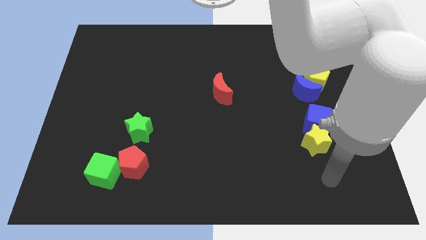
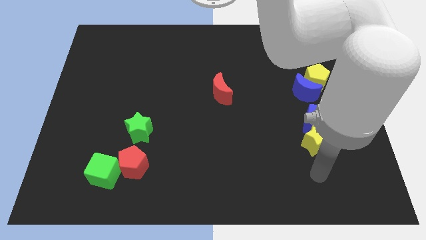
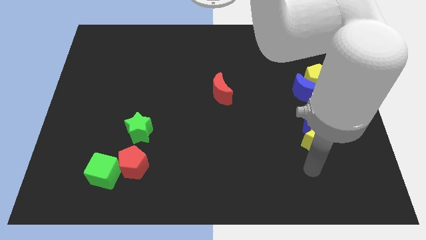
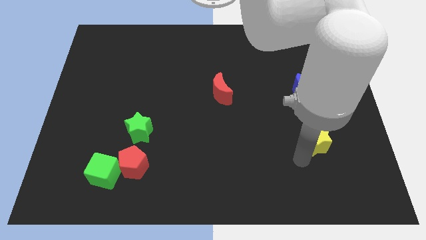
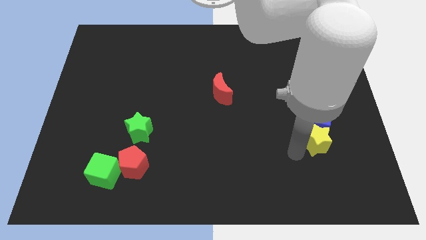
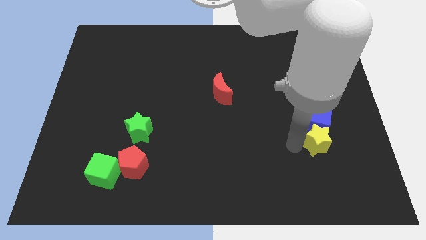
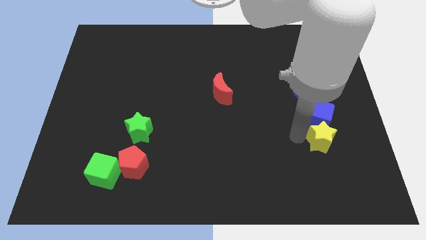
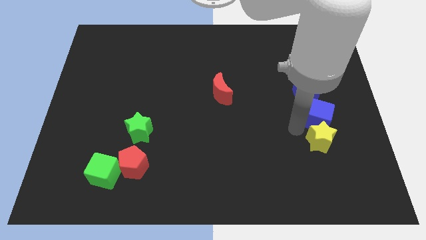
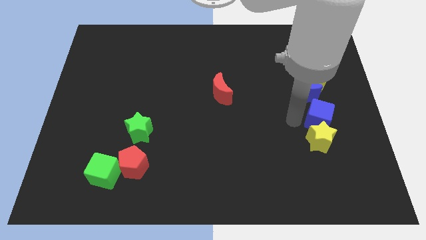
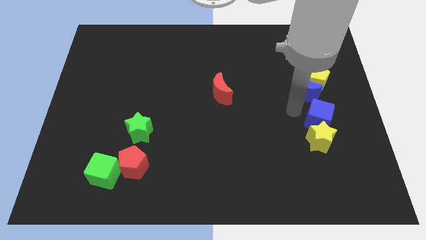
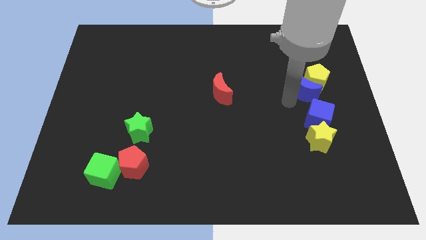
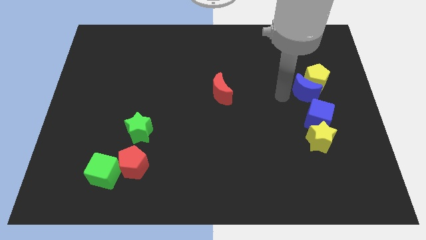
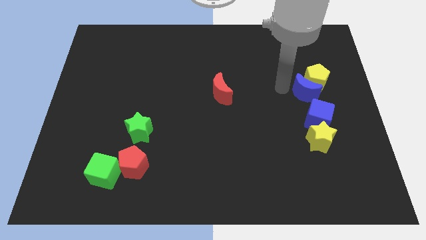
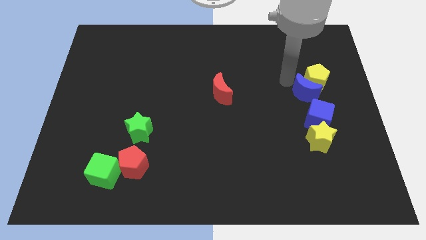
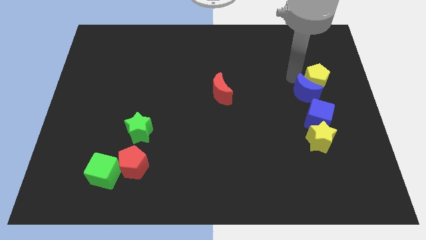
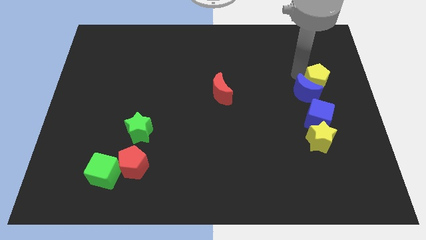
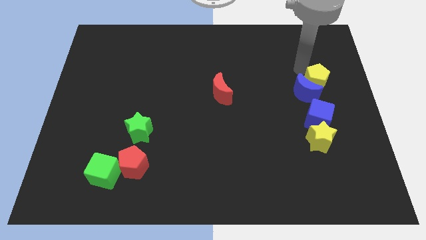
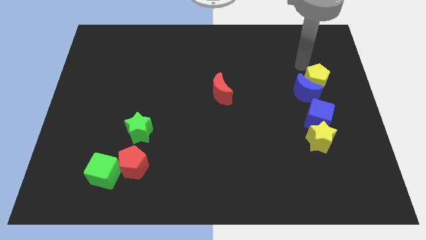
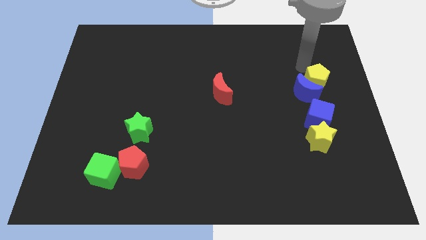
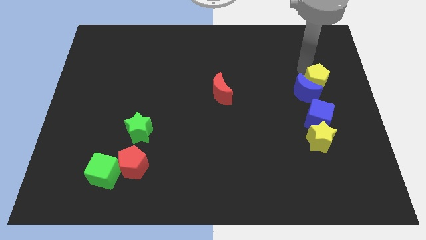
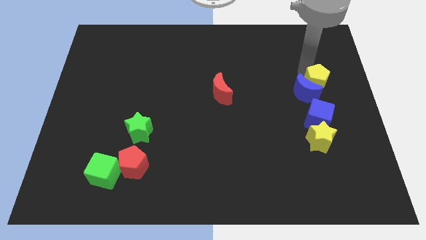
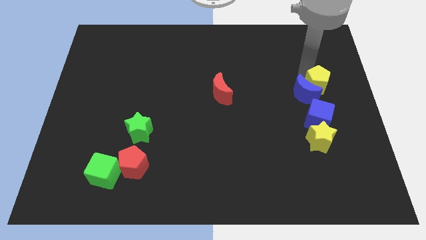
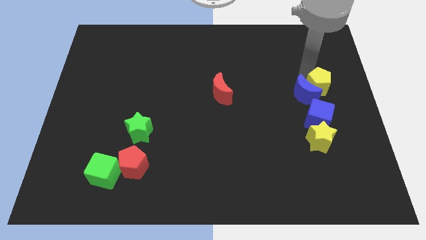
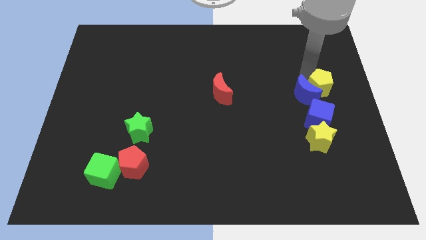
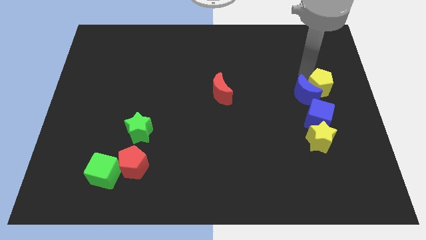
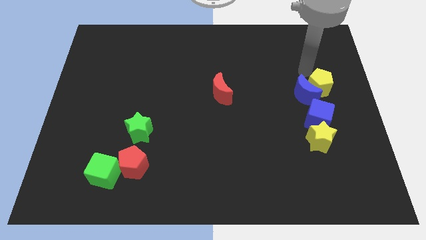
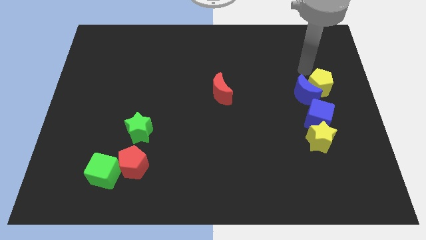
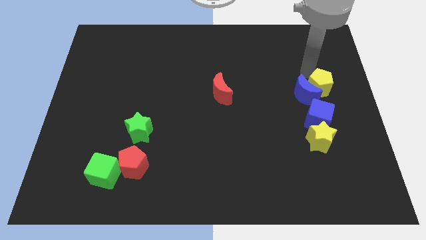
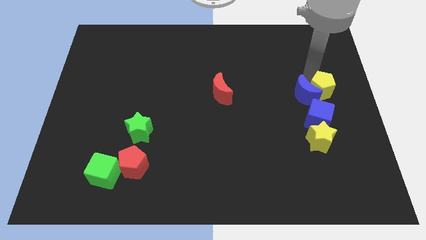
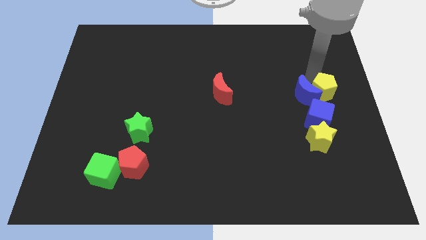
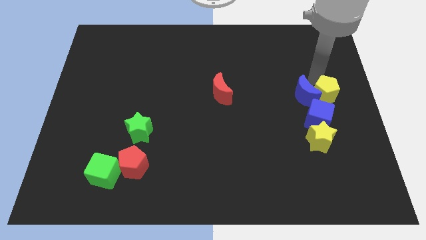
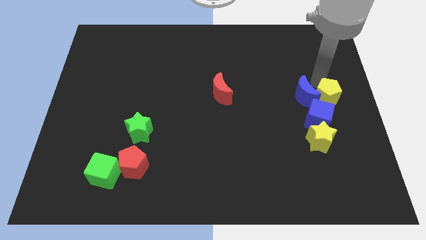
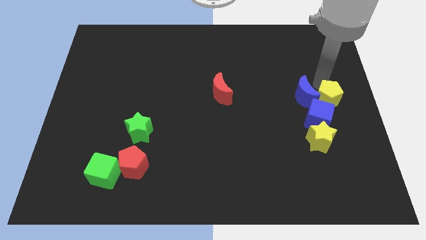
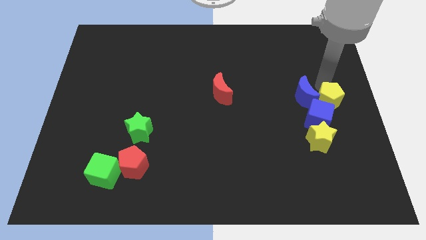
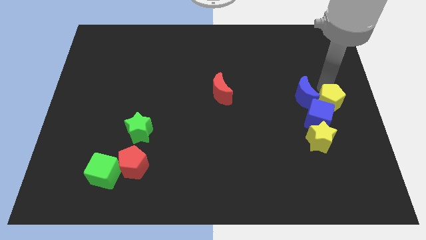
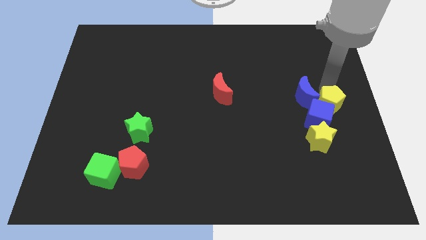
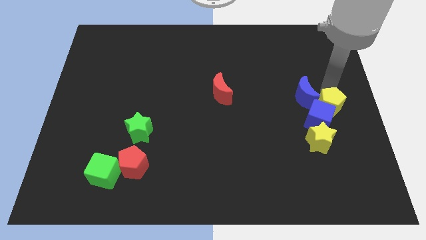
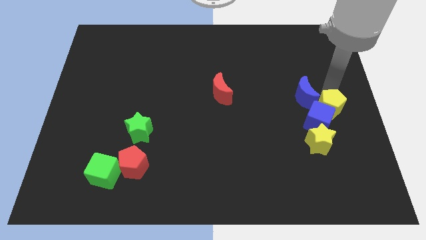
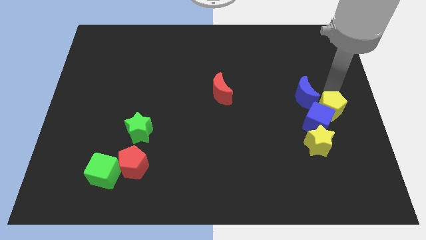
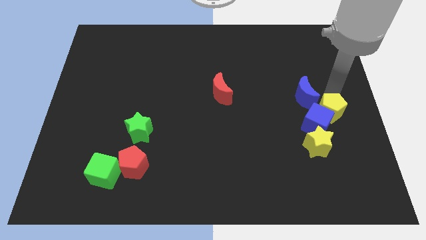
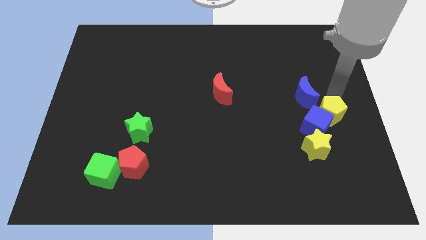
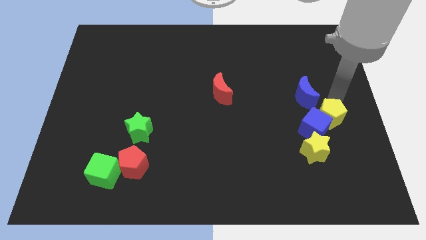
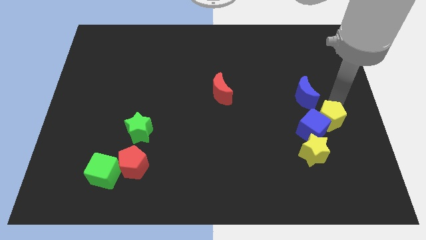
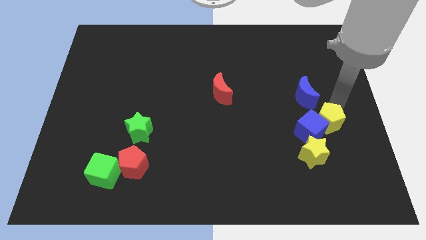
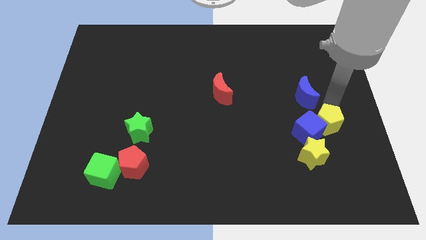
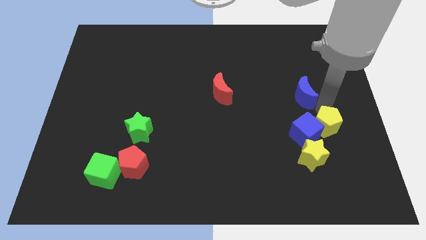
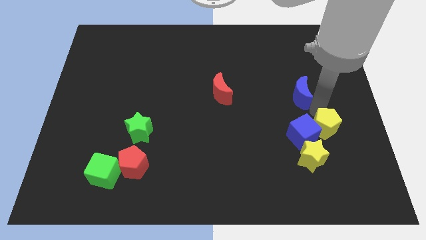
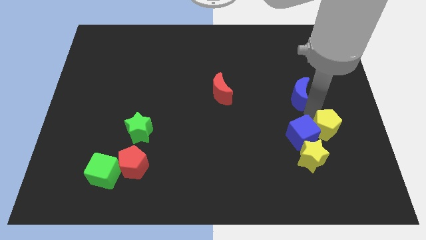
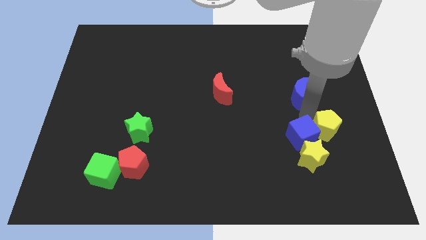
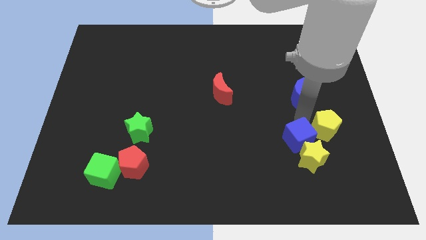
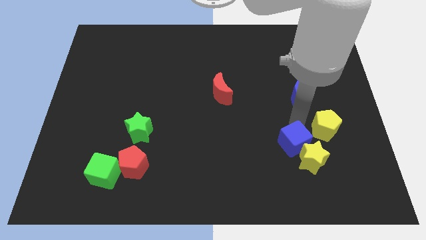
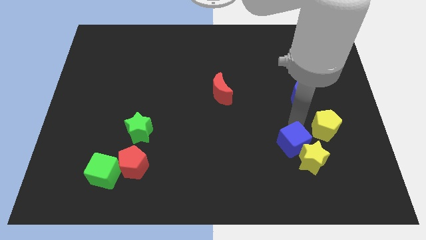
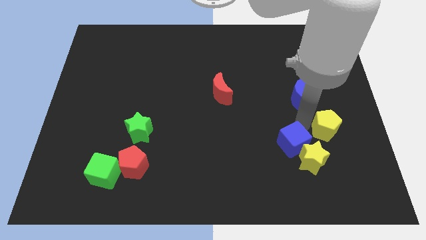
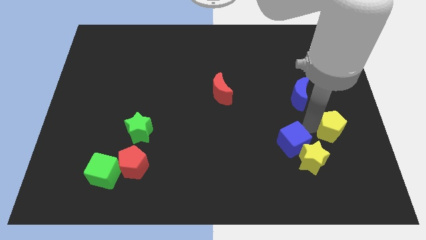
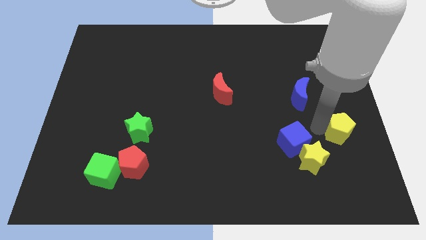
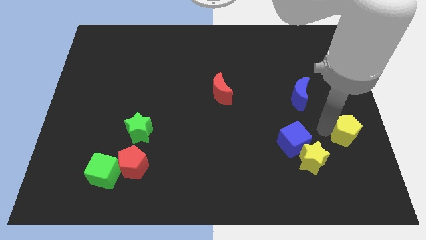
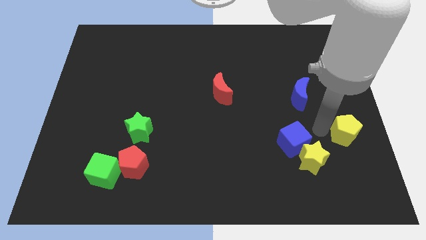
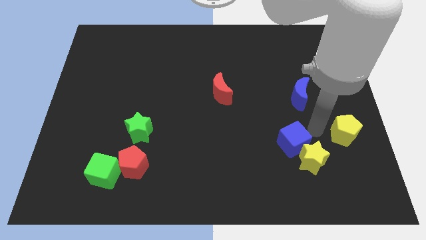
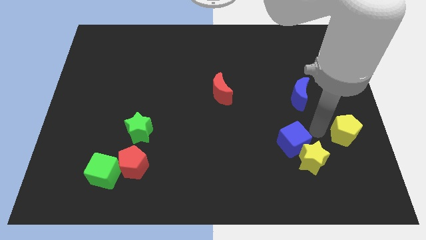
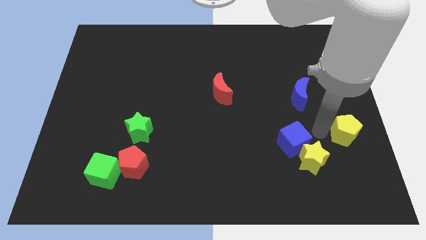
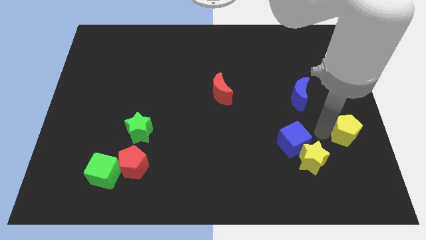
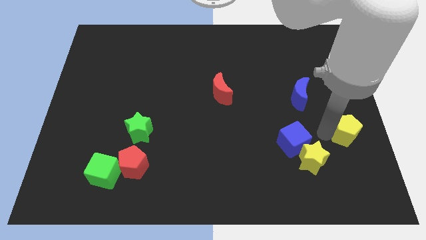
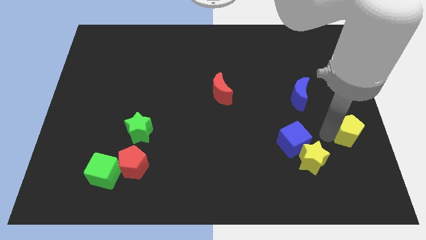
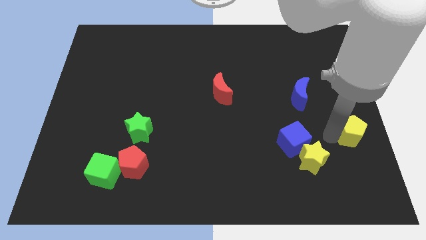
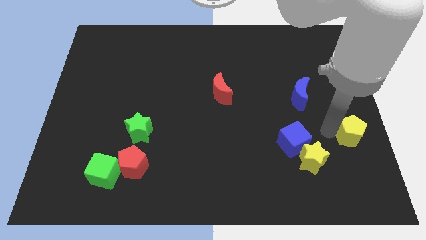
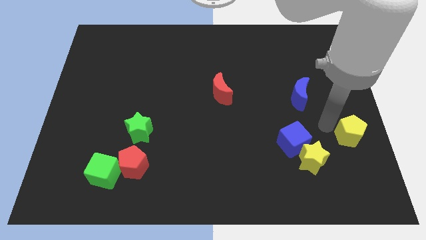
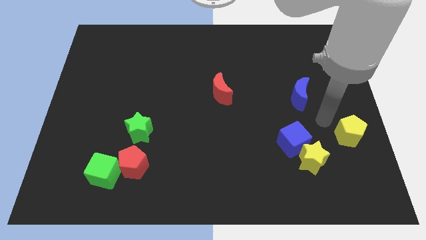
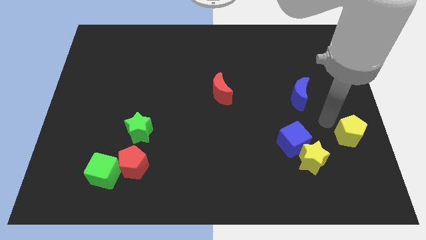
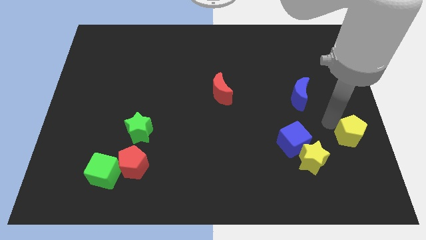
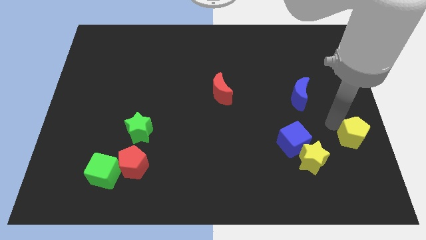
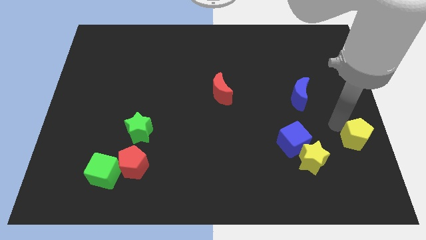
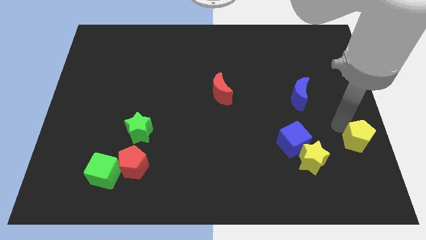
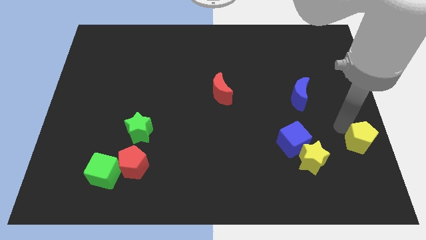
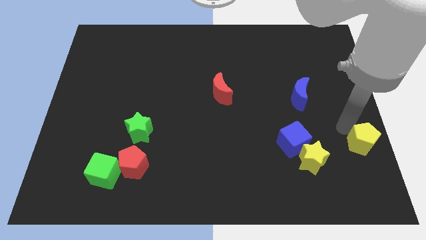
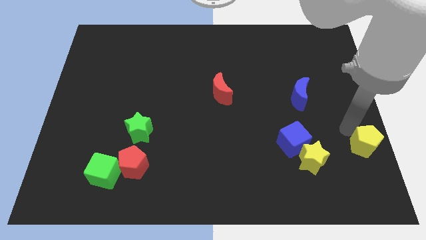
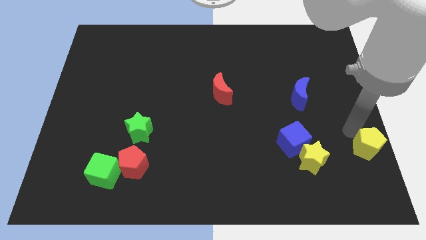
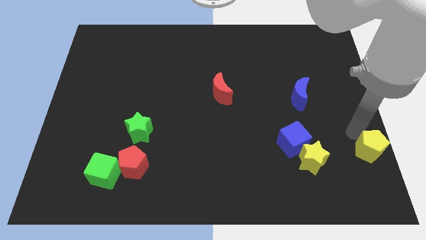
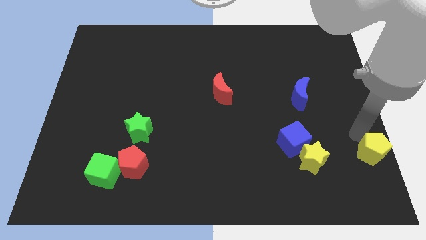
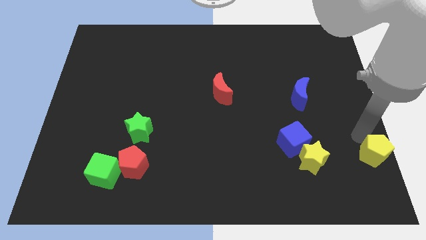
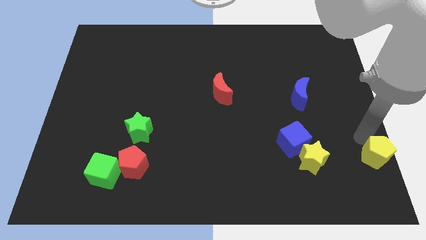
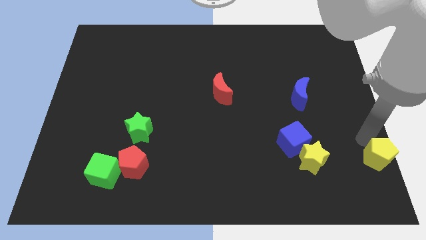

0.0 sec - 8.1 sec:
move the yellow pentagon to the bottom right corner
